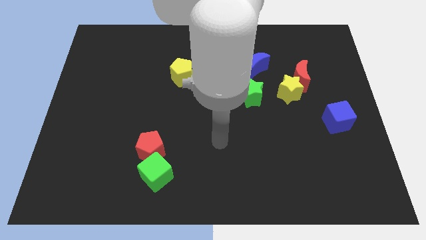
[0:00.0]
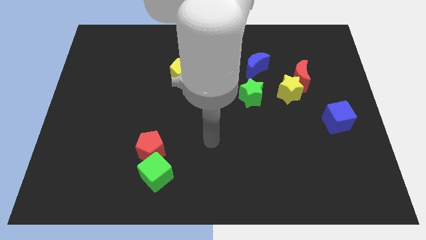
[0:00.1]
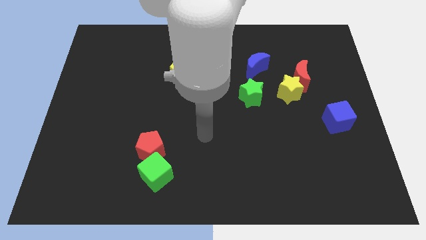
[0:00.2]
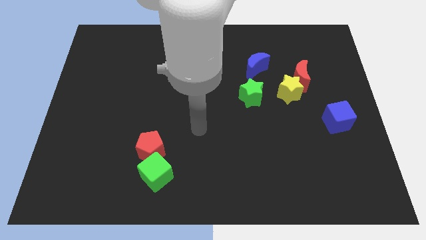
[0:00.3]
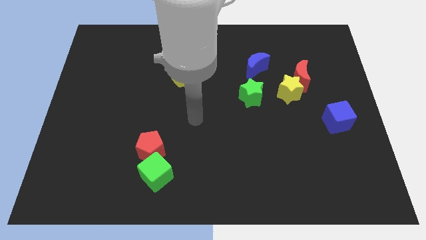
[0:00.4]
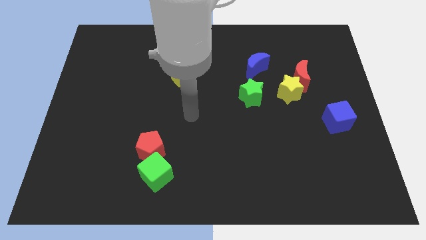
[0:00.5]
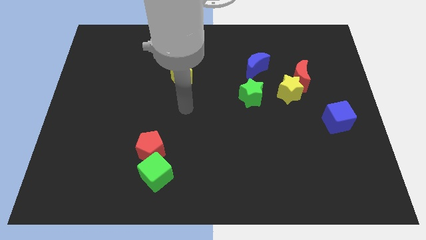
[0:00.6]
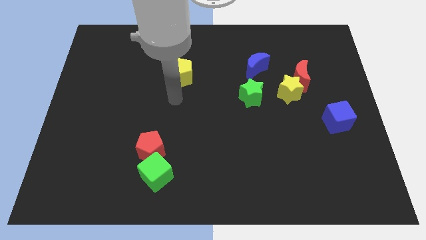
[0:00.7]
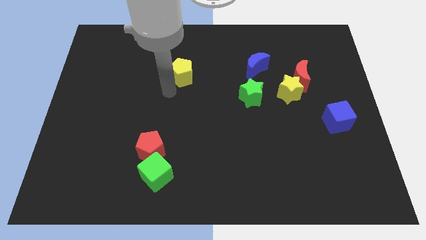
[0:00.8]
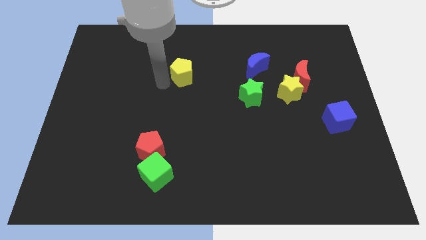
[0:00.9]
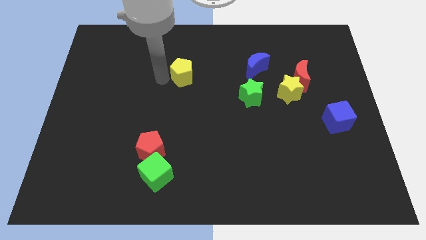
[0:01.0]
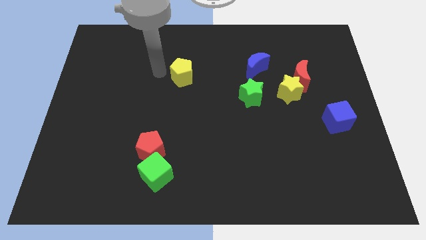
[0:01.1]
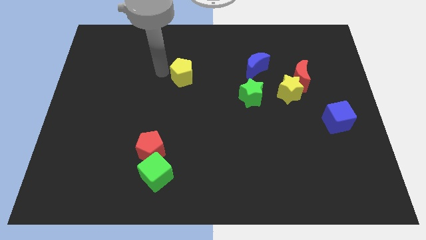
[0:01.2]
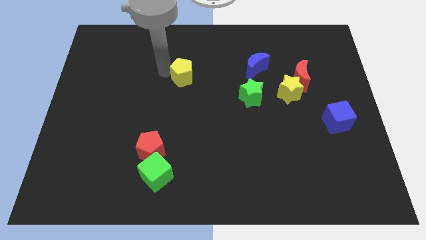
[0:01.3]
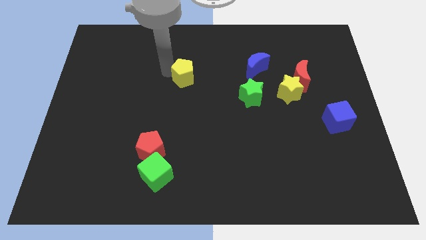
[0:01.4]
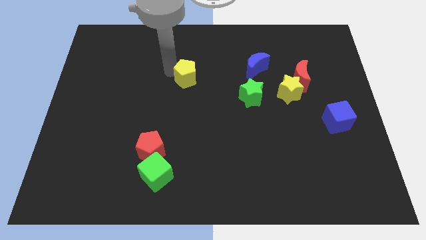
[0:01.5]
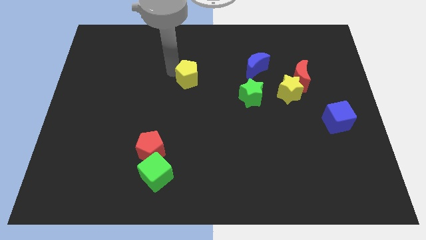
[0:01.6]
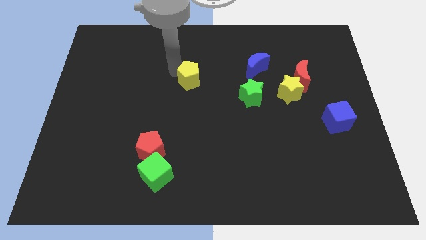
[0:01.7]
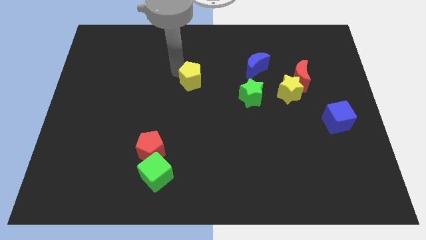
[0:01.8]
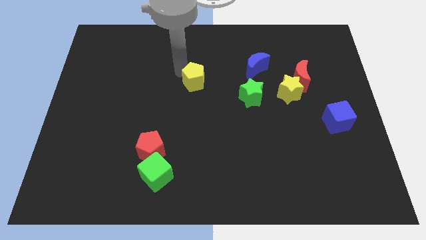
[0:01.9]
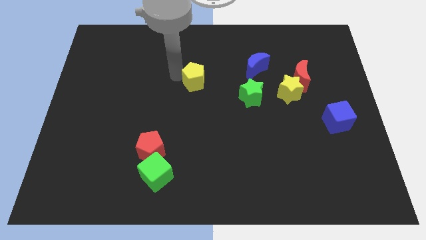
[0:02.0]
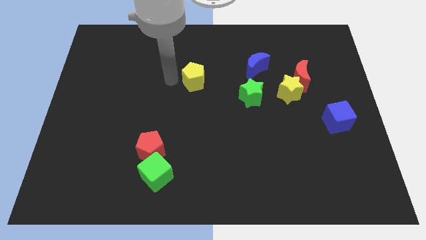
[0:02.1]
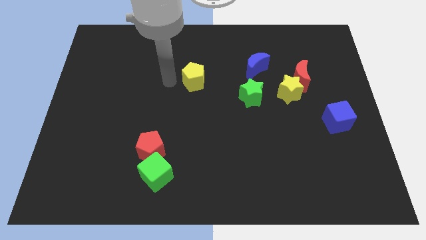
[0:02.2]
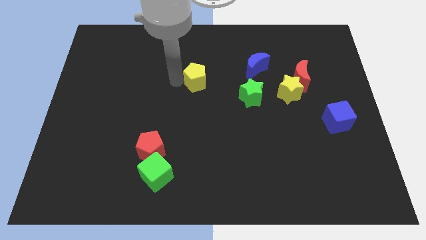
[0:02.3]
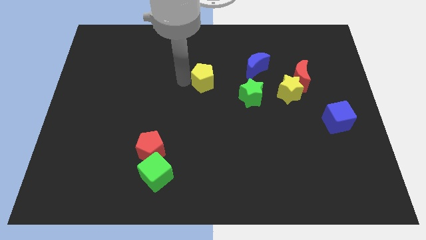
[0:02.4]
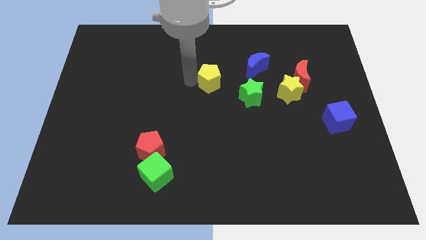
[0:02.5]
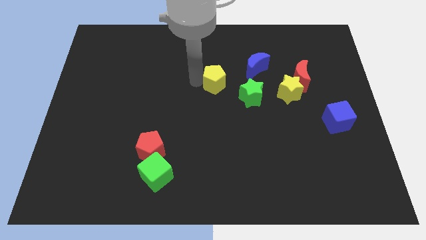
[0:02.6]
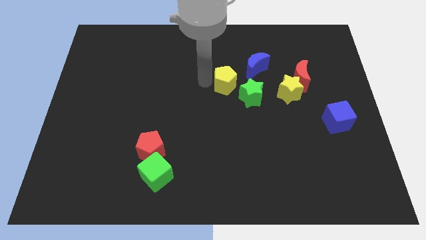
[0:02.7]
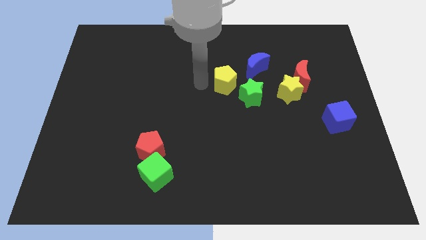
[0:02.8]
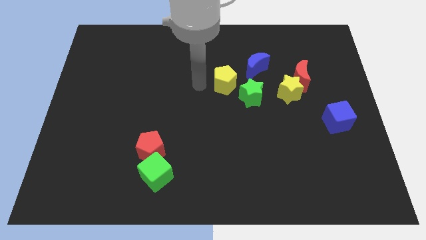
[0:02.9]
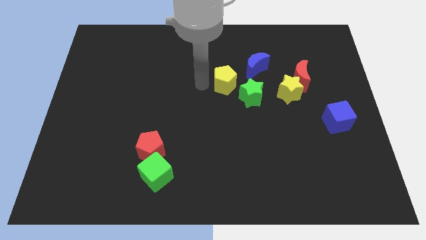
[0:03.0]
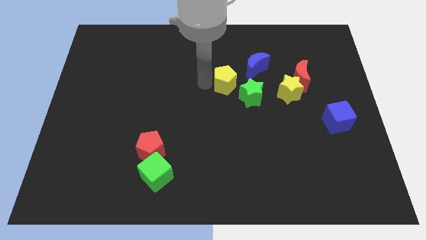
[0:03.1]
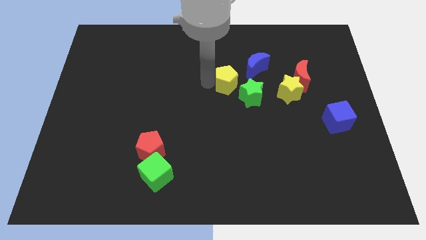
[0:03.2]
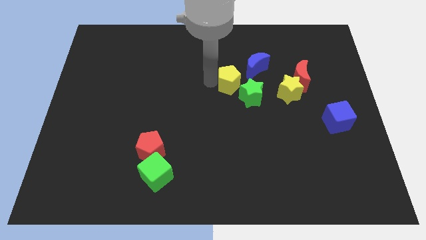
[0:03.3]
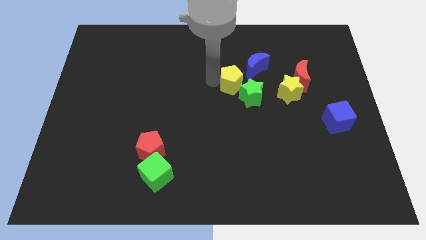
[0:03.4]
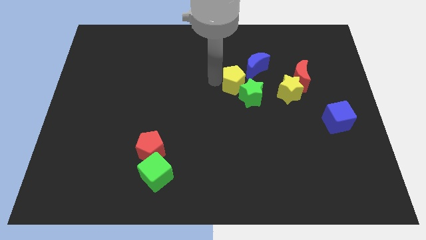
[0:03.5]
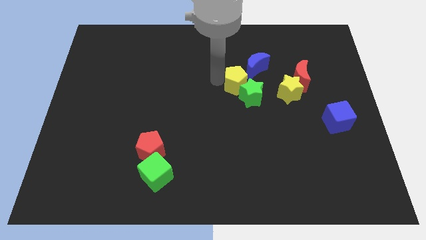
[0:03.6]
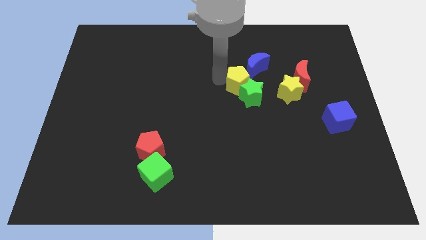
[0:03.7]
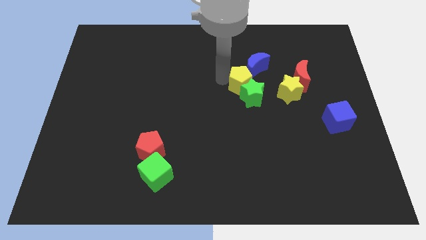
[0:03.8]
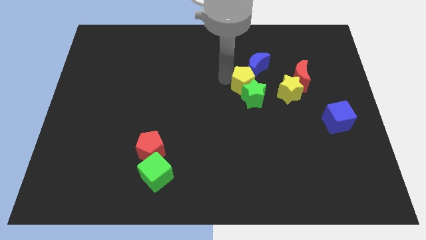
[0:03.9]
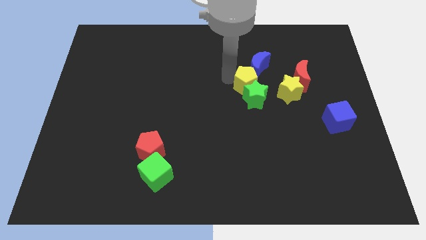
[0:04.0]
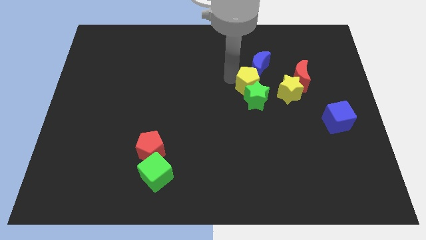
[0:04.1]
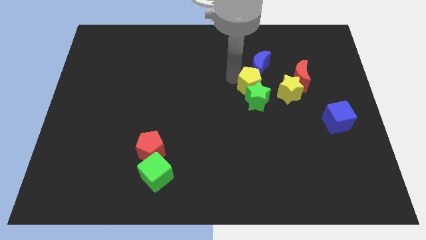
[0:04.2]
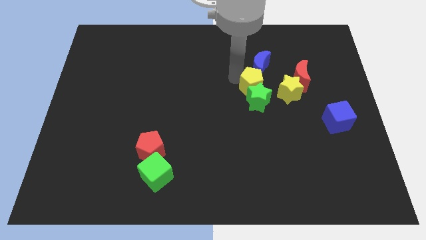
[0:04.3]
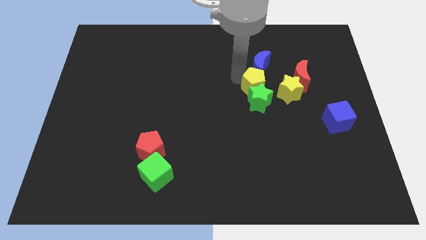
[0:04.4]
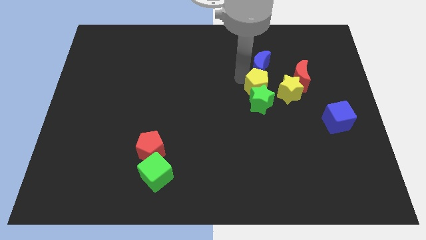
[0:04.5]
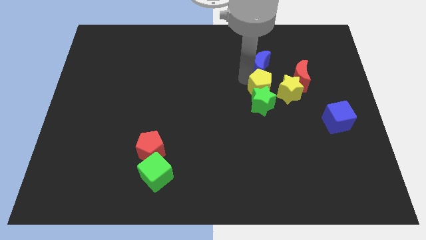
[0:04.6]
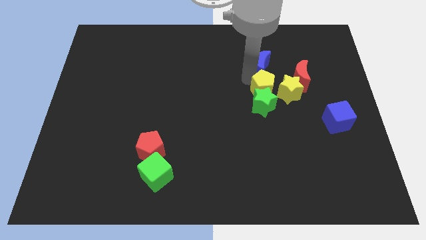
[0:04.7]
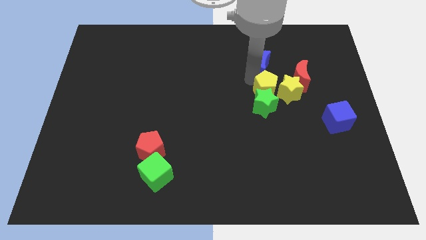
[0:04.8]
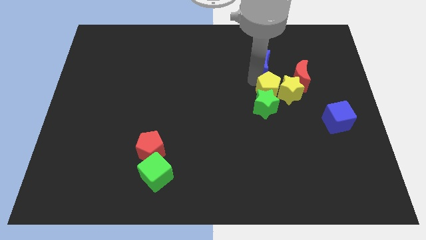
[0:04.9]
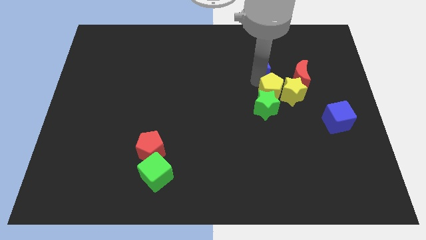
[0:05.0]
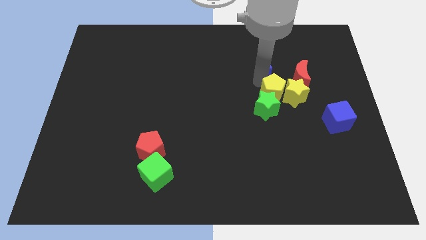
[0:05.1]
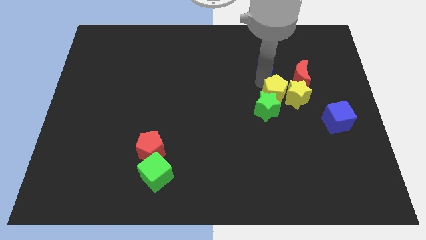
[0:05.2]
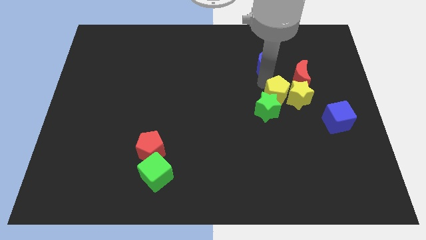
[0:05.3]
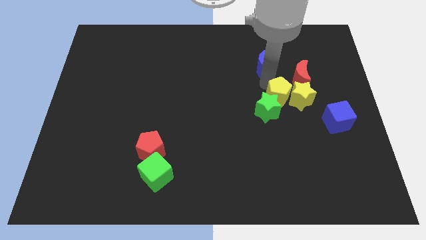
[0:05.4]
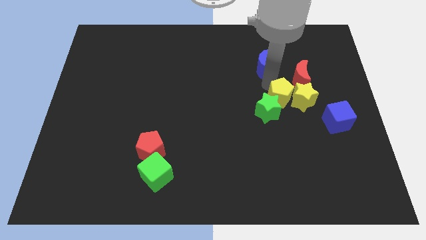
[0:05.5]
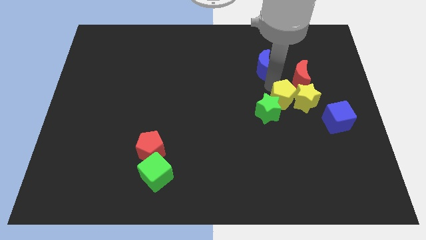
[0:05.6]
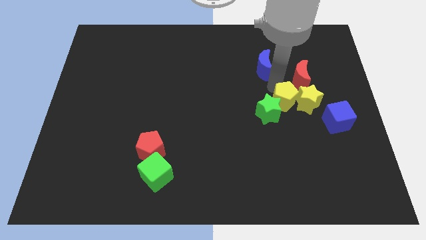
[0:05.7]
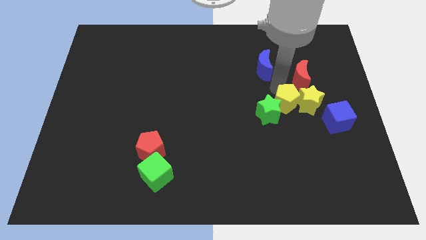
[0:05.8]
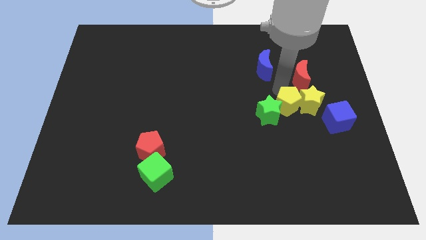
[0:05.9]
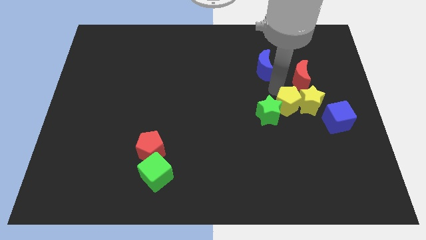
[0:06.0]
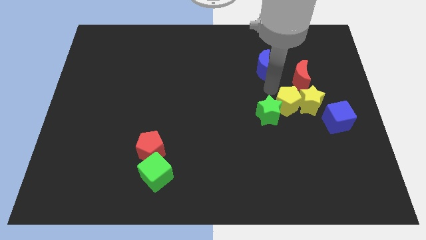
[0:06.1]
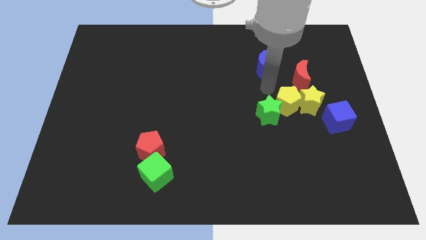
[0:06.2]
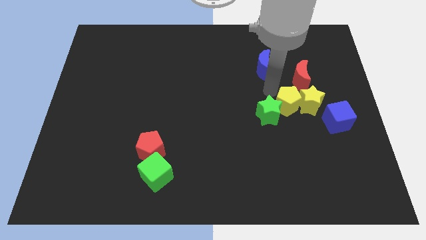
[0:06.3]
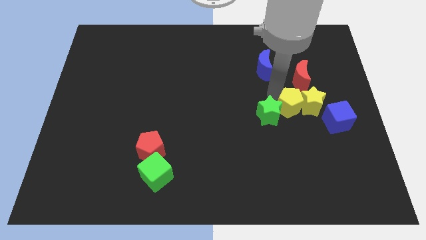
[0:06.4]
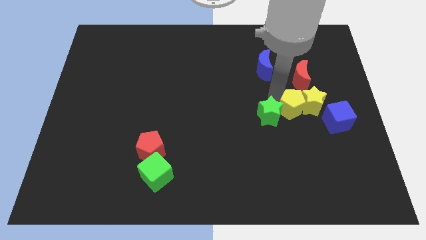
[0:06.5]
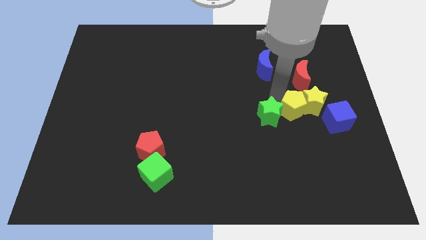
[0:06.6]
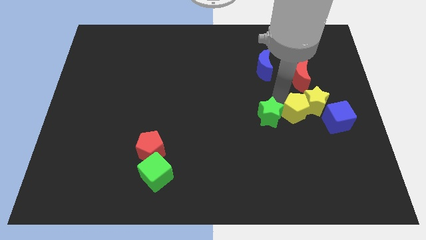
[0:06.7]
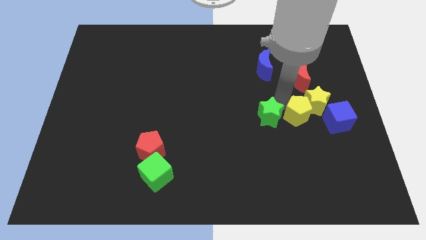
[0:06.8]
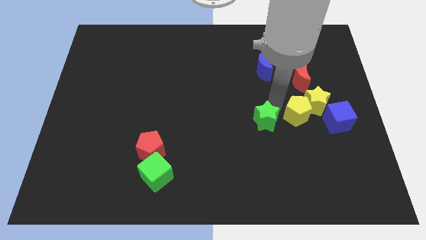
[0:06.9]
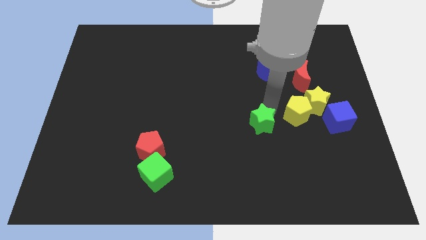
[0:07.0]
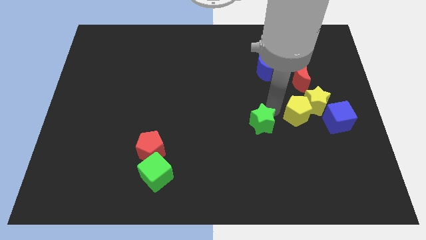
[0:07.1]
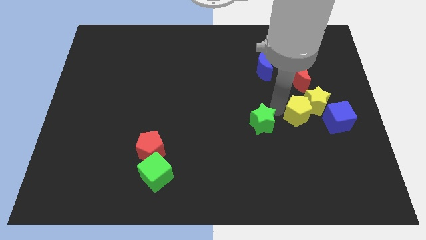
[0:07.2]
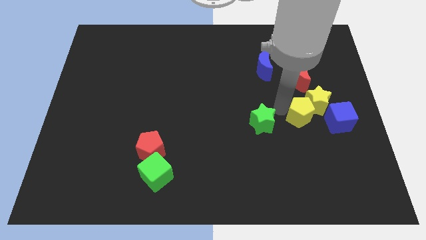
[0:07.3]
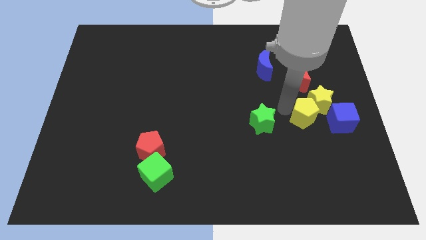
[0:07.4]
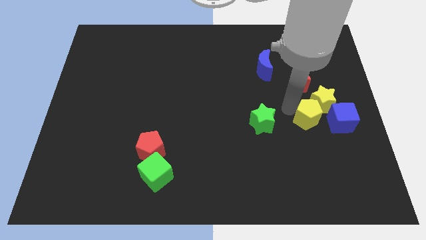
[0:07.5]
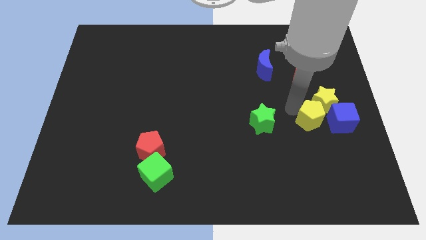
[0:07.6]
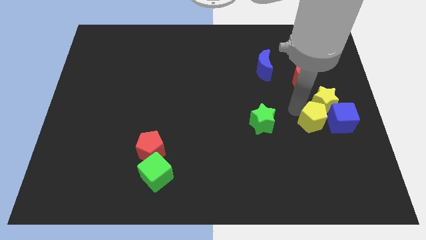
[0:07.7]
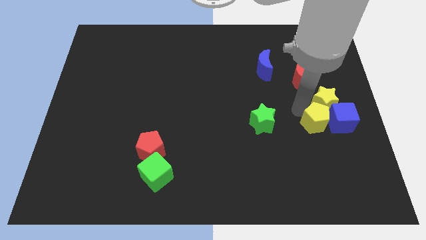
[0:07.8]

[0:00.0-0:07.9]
slide the yellow pentagon close to the blue cube
